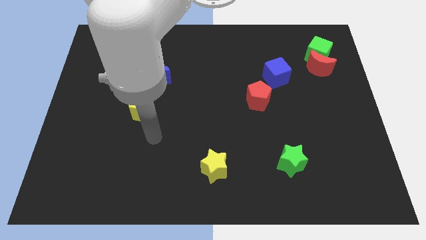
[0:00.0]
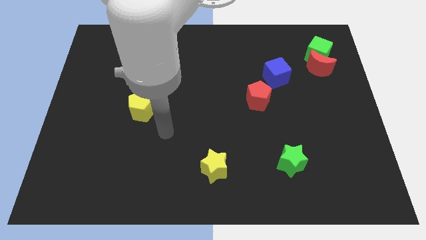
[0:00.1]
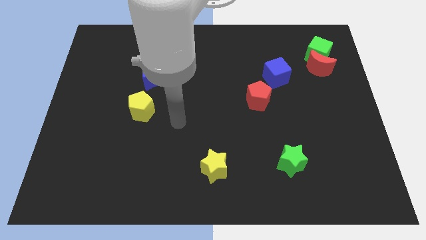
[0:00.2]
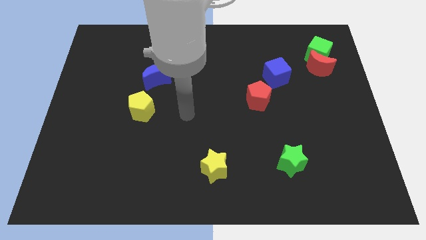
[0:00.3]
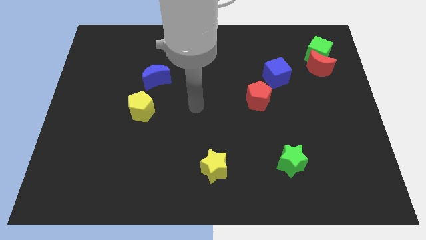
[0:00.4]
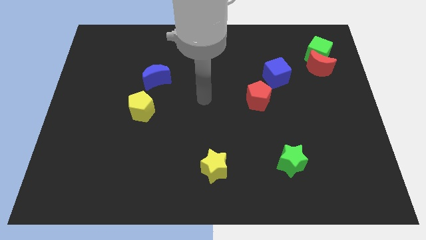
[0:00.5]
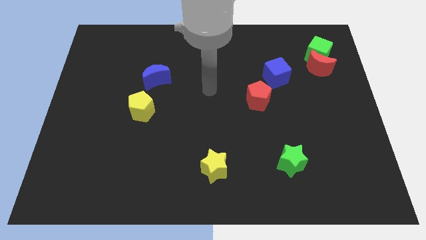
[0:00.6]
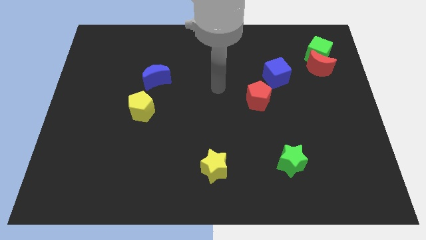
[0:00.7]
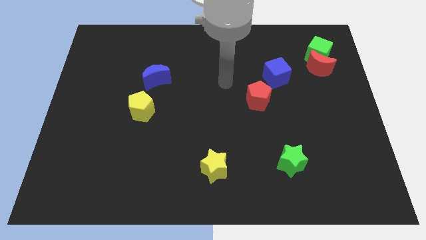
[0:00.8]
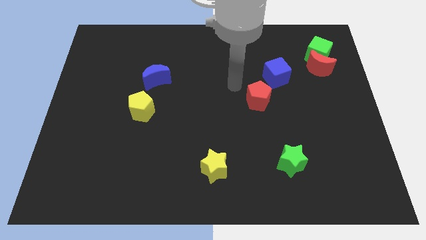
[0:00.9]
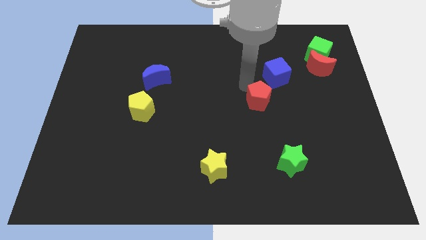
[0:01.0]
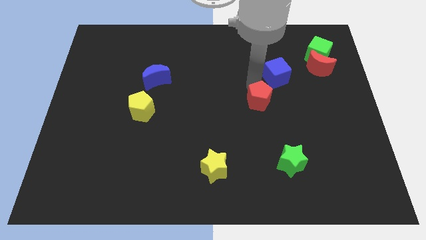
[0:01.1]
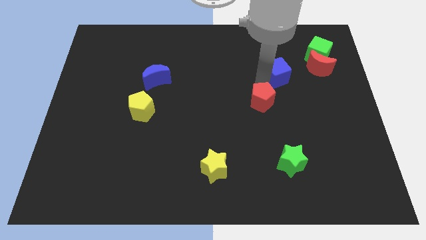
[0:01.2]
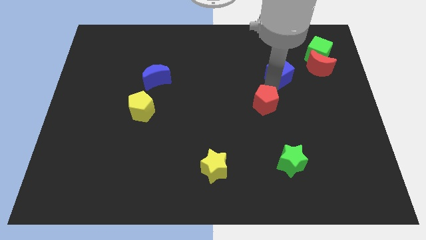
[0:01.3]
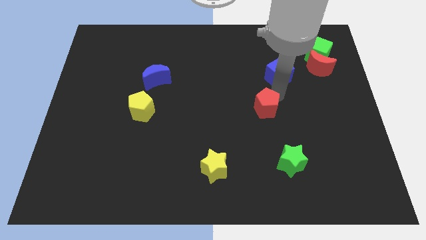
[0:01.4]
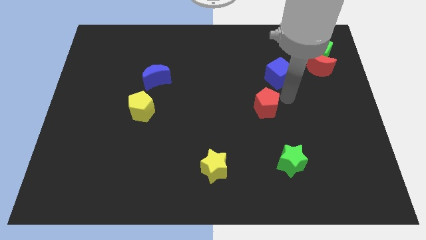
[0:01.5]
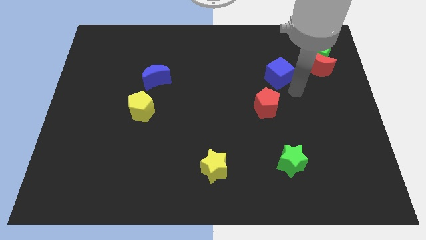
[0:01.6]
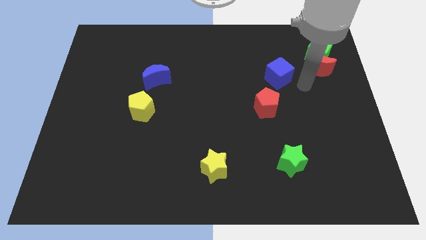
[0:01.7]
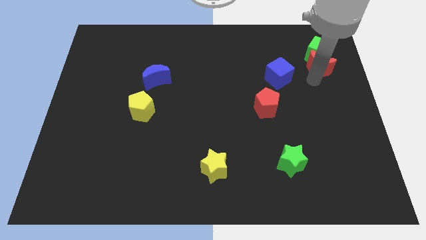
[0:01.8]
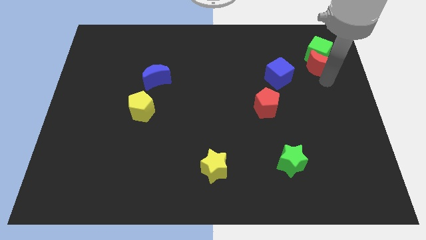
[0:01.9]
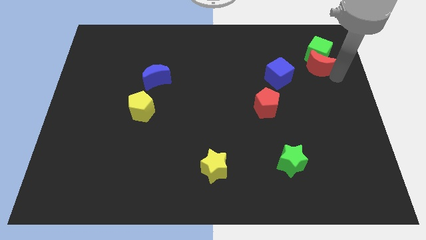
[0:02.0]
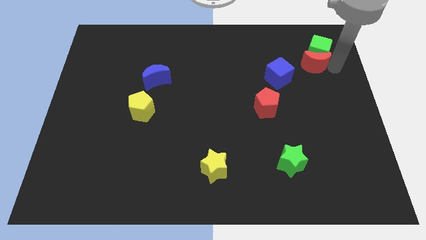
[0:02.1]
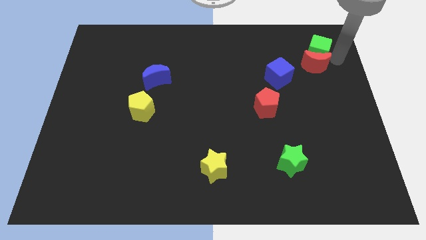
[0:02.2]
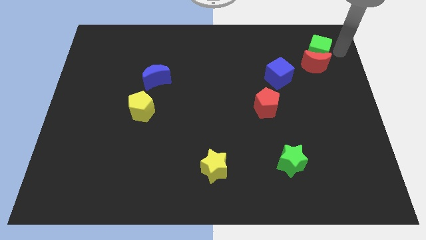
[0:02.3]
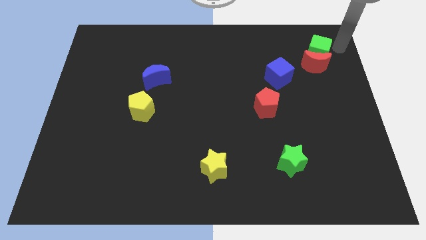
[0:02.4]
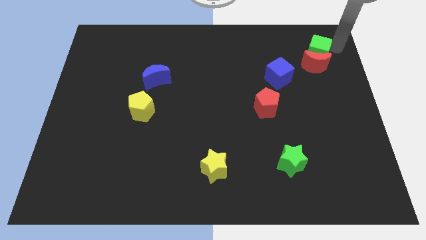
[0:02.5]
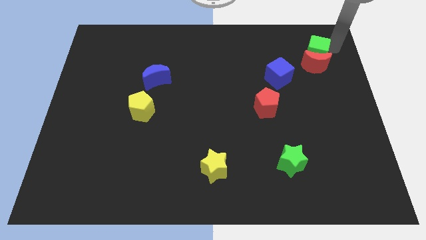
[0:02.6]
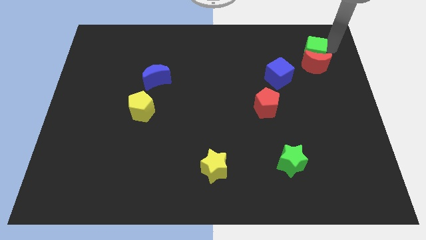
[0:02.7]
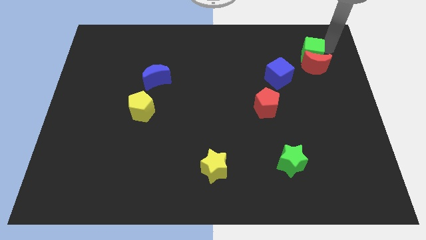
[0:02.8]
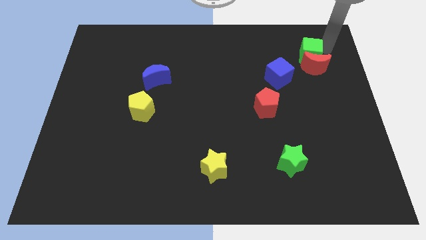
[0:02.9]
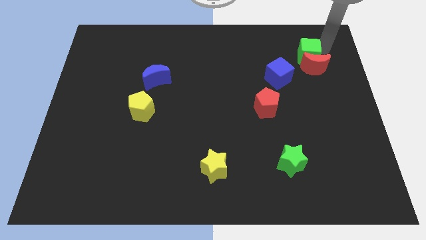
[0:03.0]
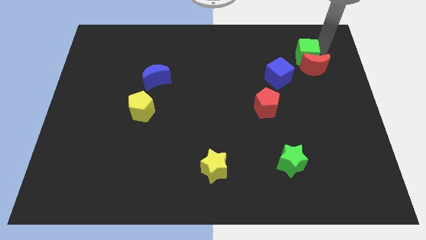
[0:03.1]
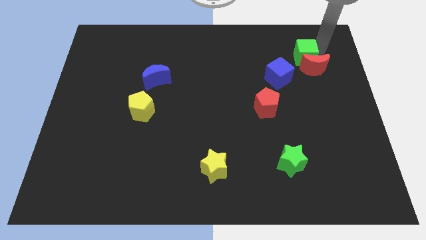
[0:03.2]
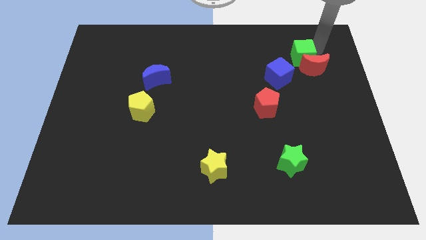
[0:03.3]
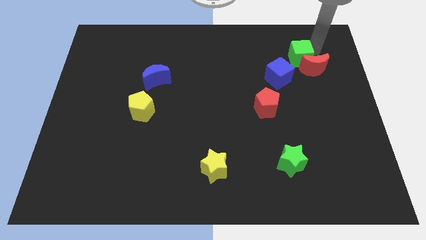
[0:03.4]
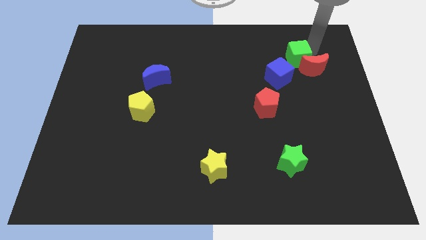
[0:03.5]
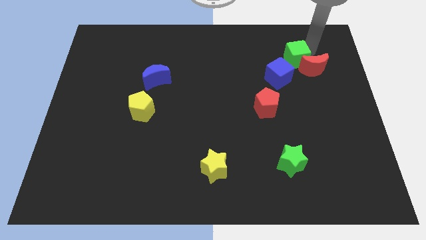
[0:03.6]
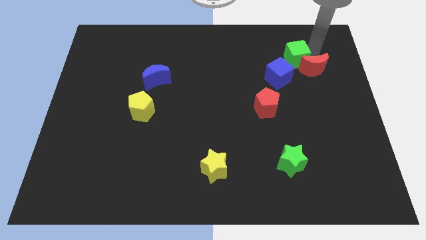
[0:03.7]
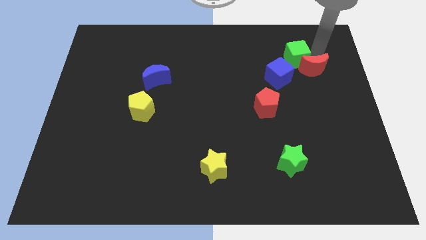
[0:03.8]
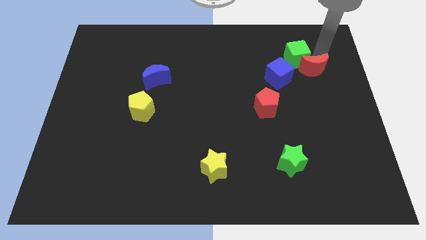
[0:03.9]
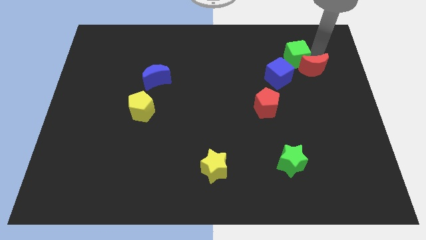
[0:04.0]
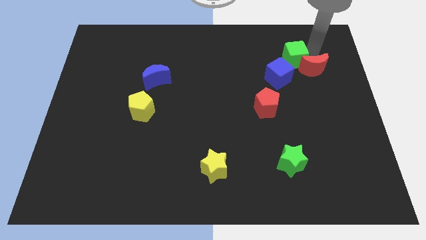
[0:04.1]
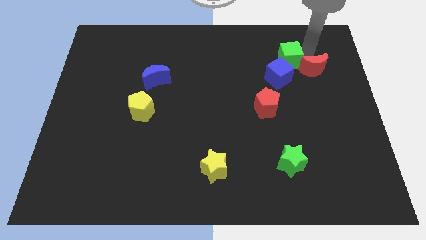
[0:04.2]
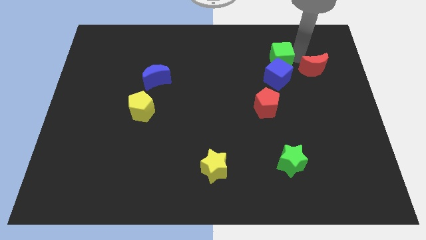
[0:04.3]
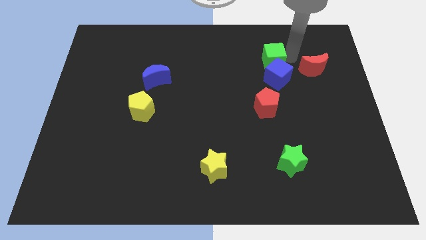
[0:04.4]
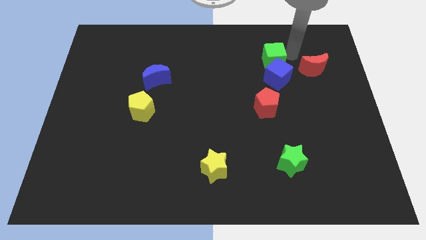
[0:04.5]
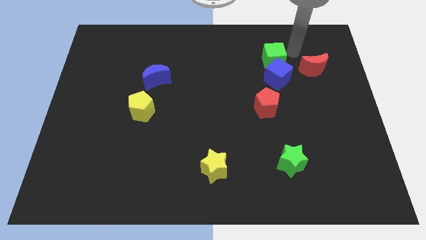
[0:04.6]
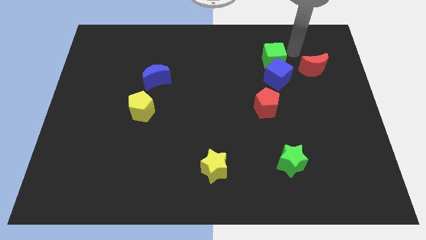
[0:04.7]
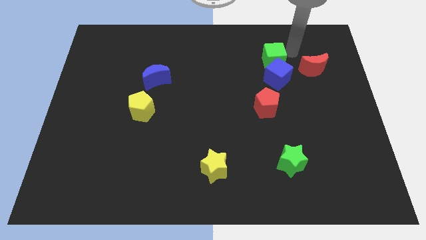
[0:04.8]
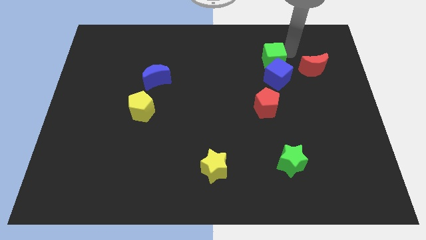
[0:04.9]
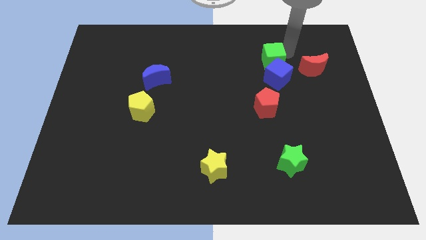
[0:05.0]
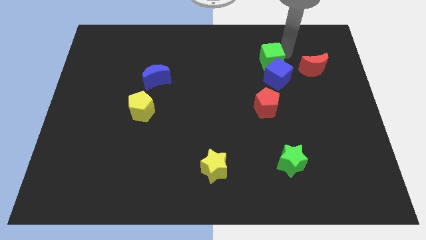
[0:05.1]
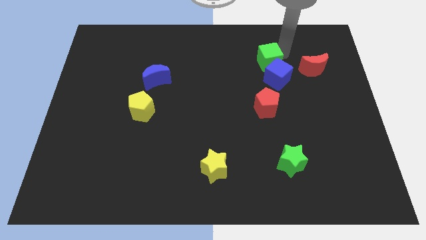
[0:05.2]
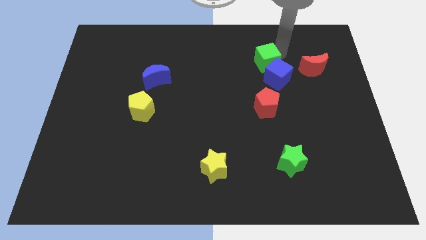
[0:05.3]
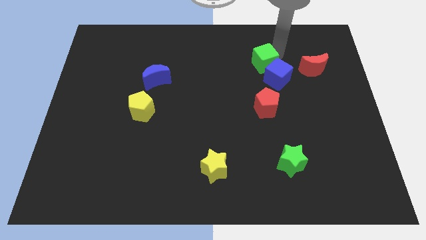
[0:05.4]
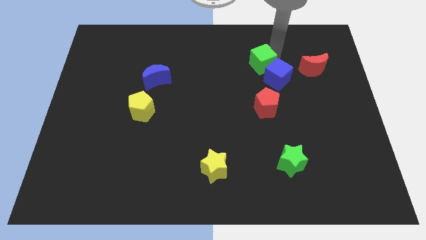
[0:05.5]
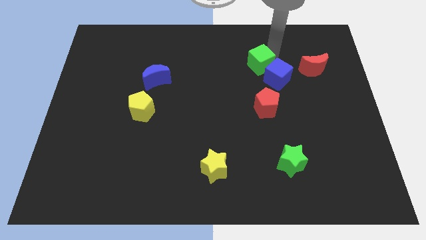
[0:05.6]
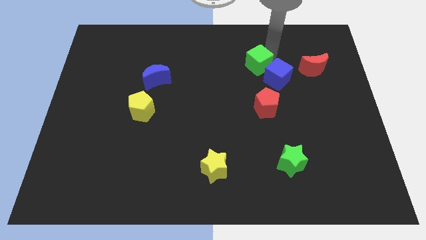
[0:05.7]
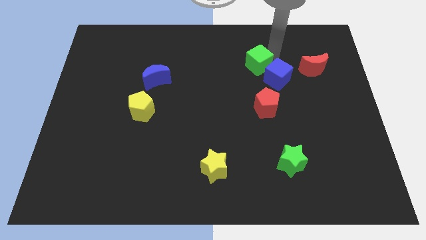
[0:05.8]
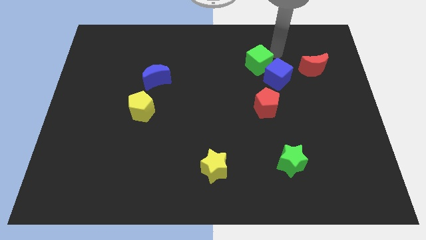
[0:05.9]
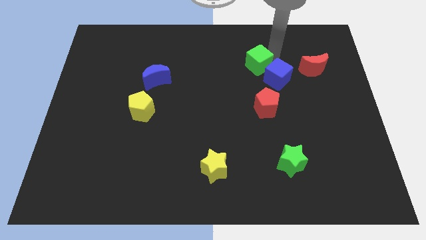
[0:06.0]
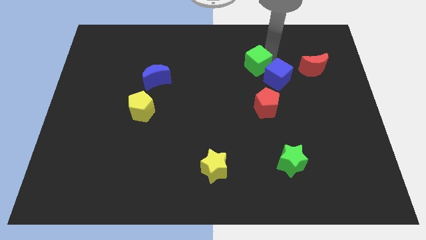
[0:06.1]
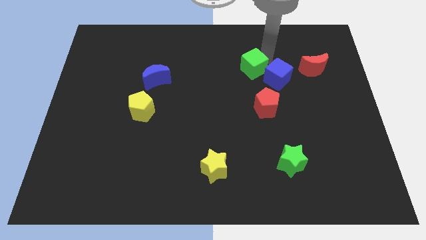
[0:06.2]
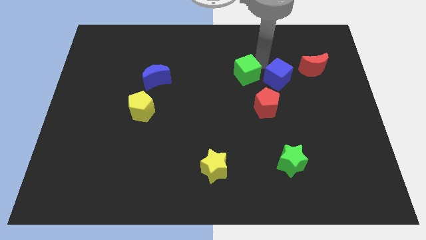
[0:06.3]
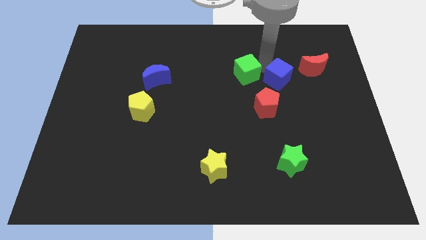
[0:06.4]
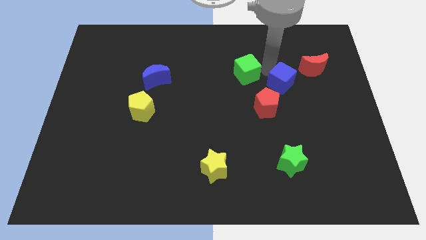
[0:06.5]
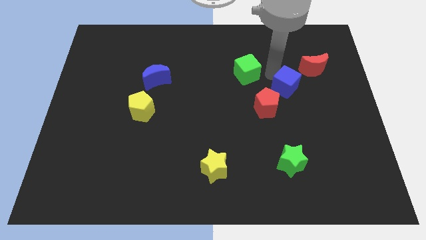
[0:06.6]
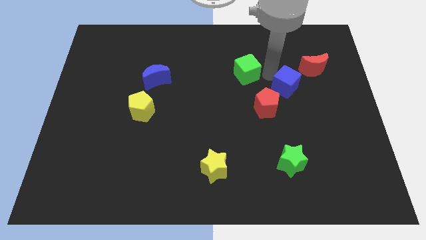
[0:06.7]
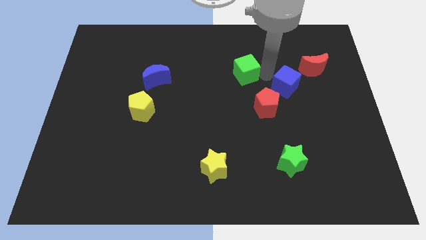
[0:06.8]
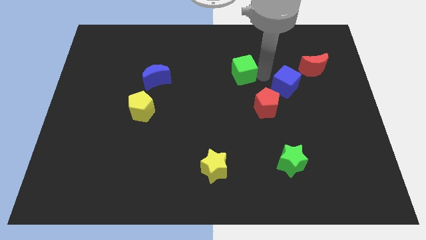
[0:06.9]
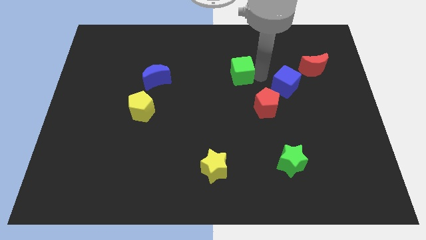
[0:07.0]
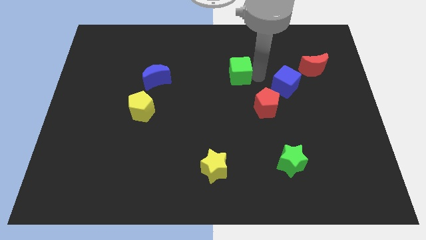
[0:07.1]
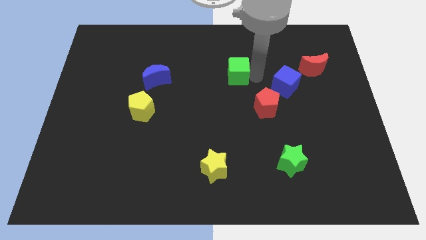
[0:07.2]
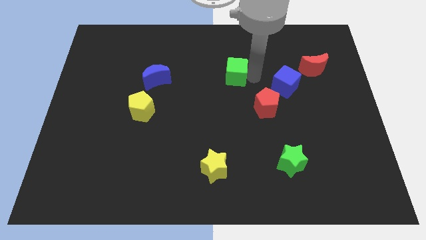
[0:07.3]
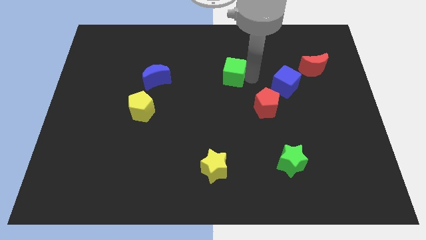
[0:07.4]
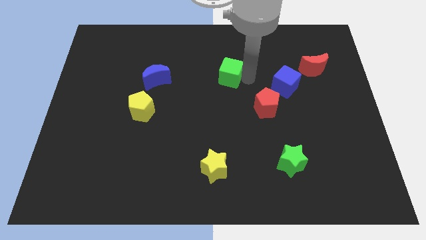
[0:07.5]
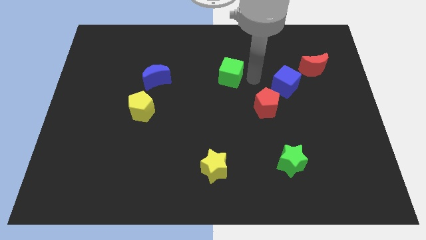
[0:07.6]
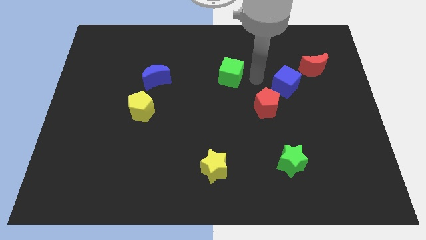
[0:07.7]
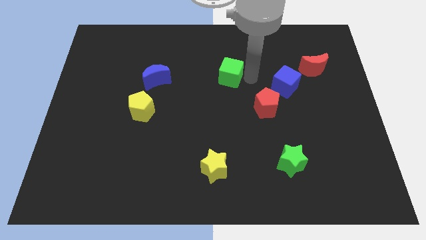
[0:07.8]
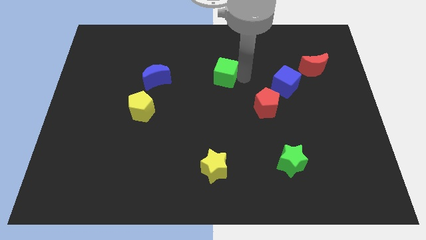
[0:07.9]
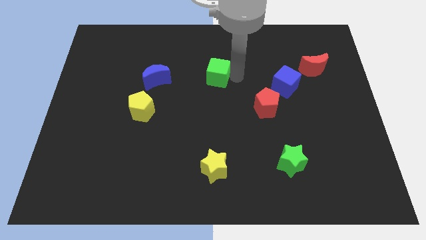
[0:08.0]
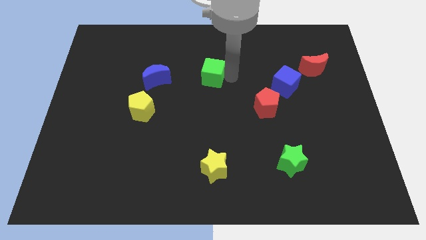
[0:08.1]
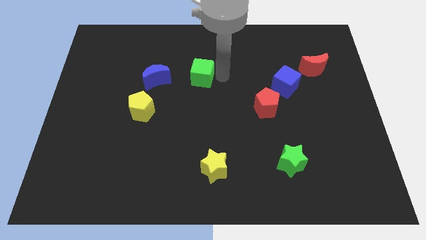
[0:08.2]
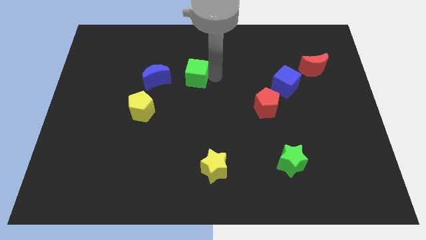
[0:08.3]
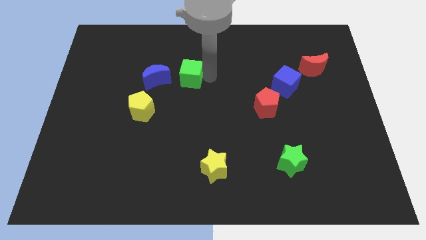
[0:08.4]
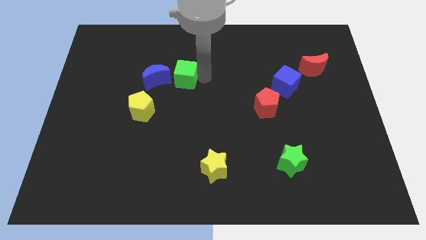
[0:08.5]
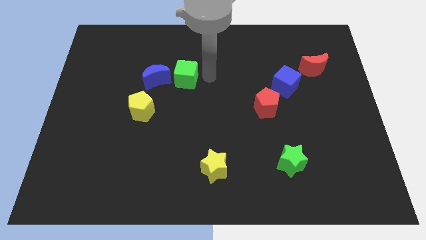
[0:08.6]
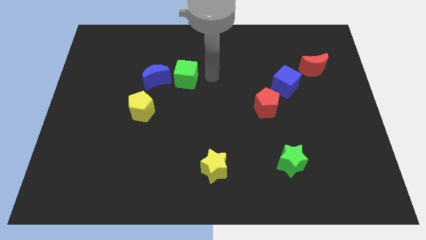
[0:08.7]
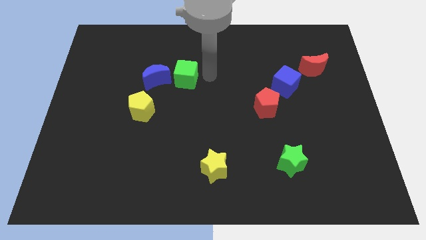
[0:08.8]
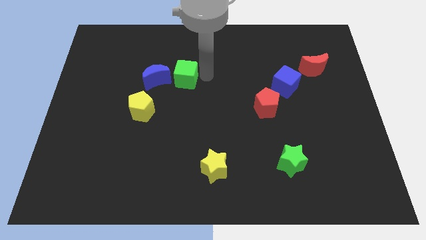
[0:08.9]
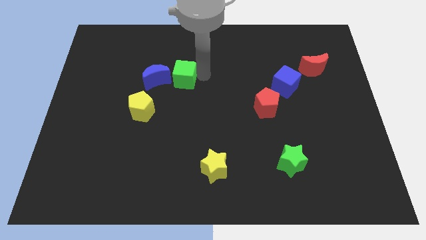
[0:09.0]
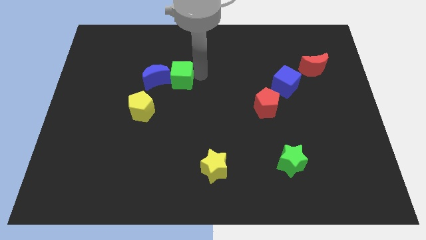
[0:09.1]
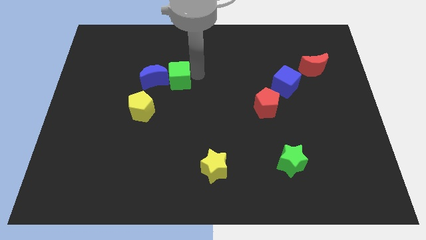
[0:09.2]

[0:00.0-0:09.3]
slide the green cube close to the blue moon
